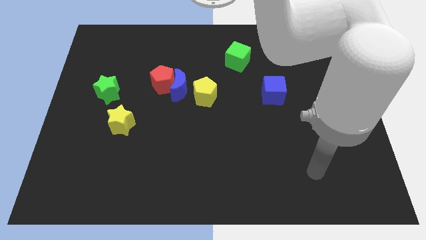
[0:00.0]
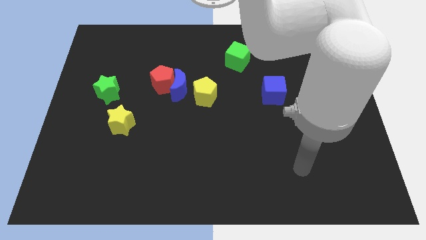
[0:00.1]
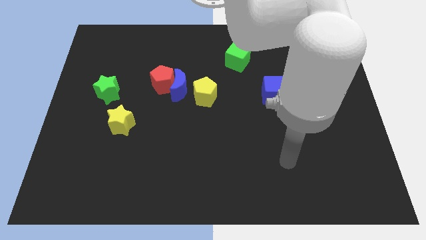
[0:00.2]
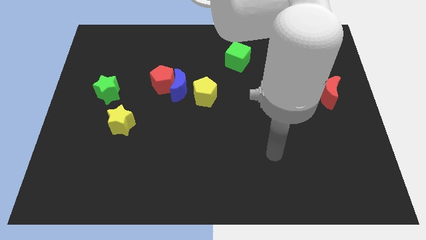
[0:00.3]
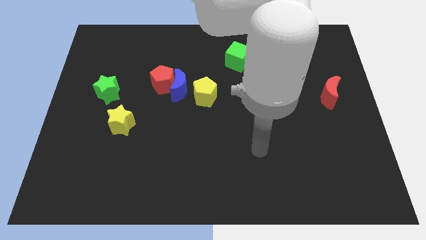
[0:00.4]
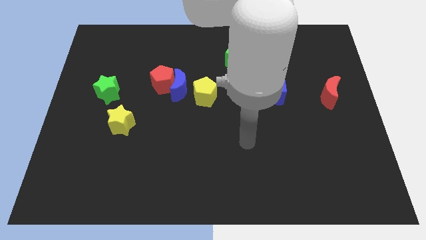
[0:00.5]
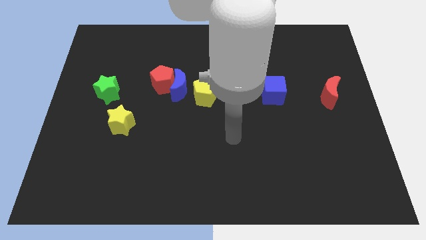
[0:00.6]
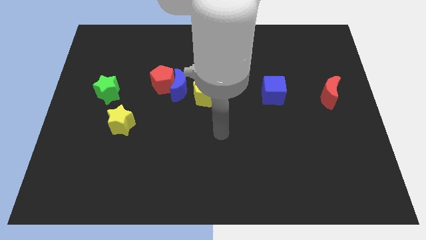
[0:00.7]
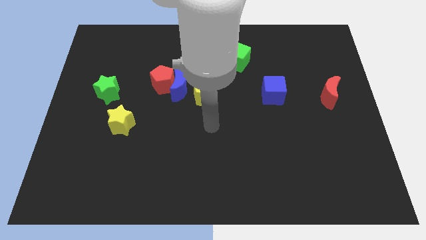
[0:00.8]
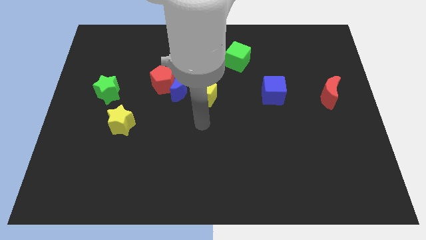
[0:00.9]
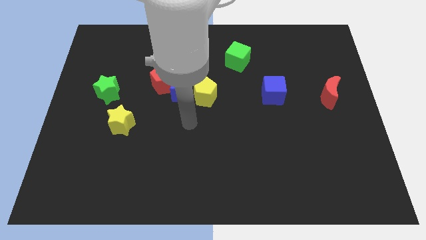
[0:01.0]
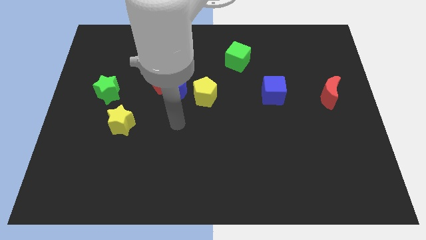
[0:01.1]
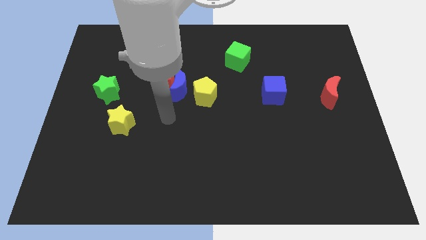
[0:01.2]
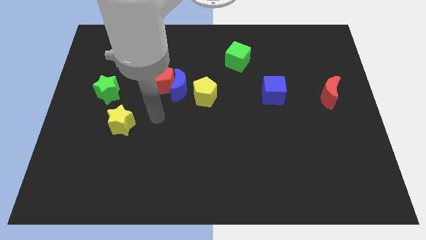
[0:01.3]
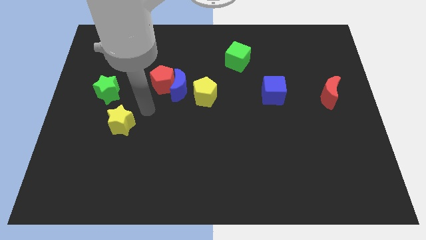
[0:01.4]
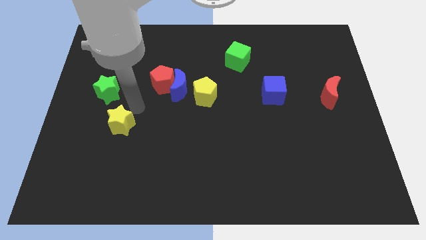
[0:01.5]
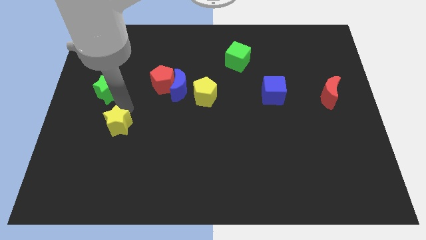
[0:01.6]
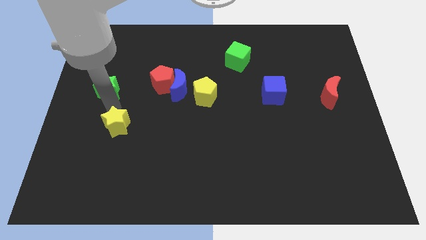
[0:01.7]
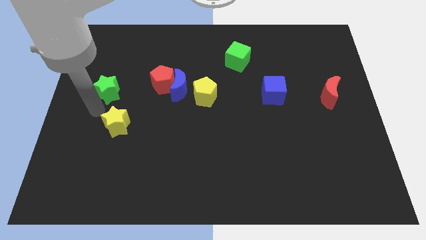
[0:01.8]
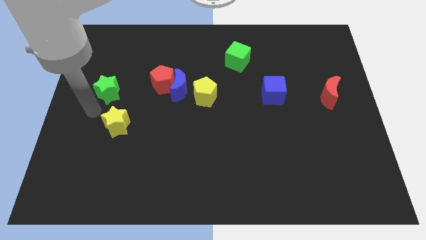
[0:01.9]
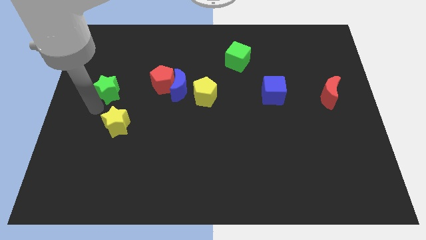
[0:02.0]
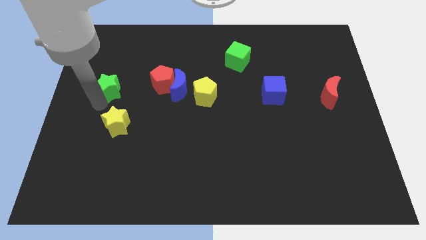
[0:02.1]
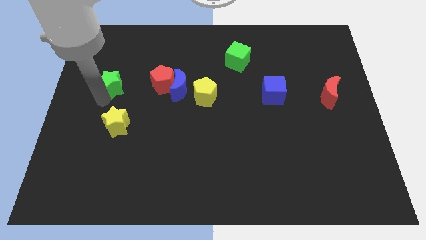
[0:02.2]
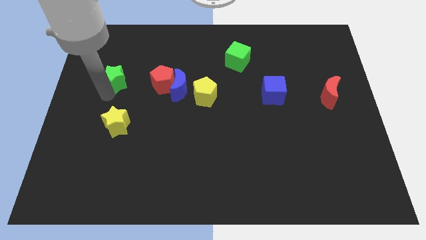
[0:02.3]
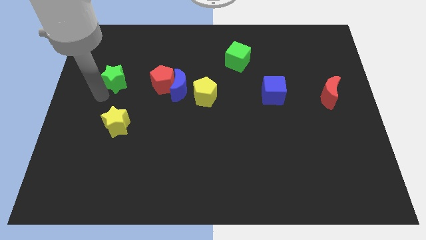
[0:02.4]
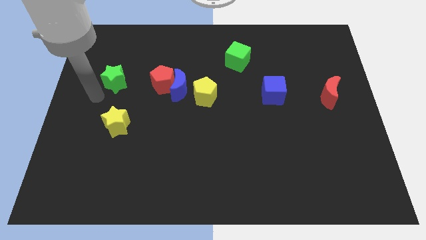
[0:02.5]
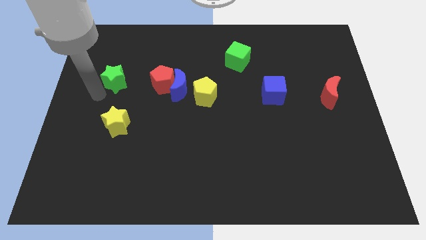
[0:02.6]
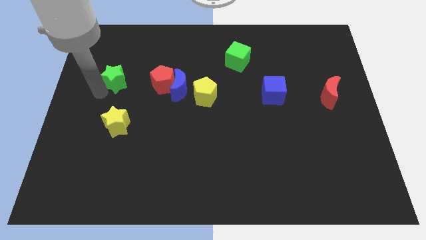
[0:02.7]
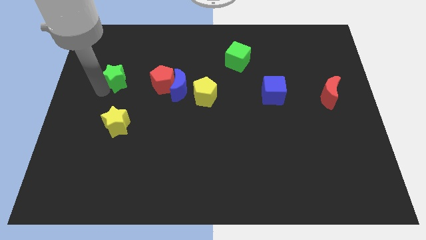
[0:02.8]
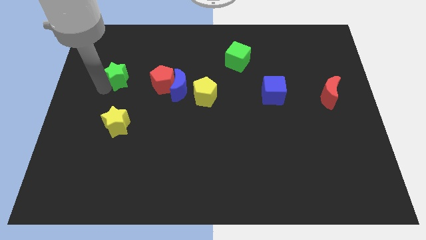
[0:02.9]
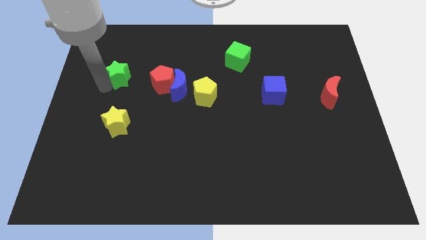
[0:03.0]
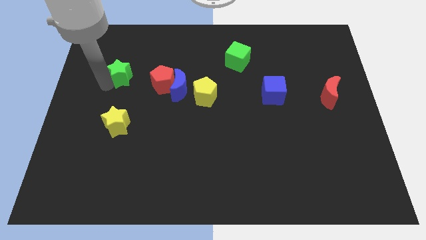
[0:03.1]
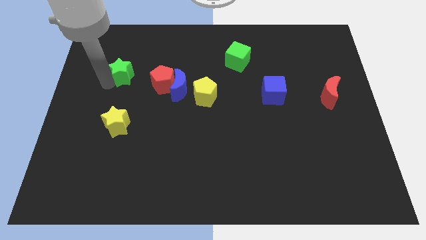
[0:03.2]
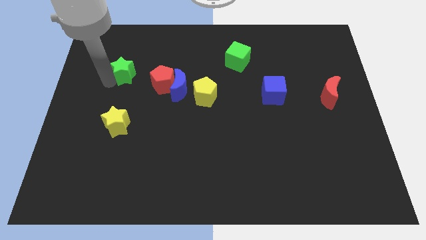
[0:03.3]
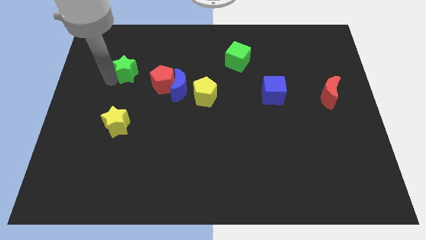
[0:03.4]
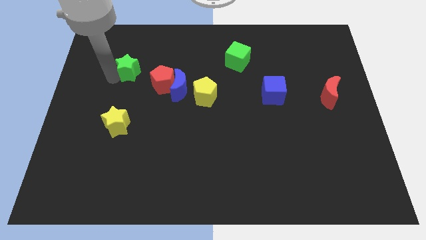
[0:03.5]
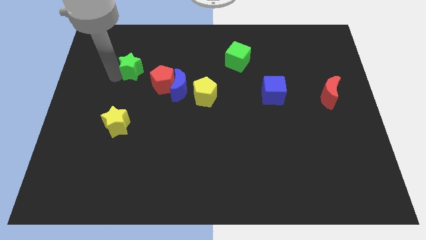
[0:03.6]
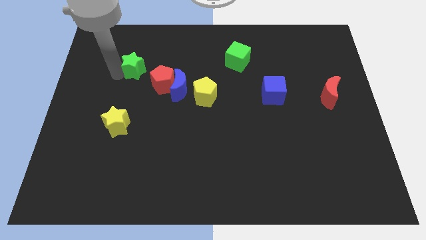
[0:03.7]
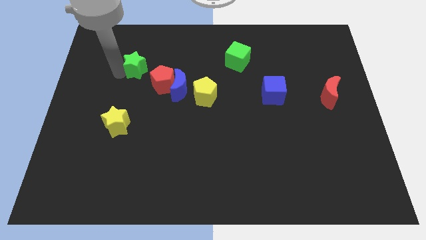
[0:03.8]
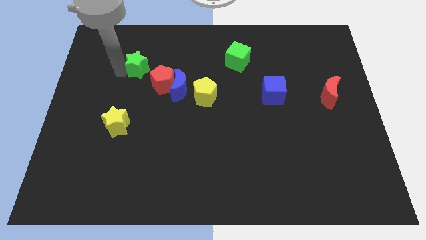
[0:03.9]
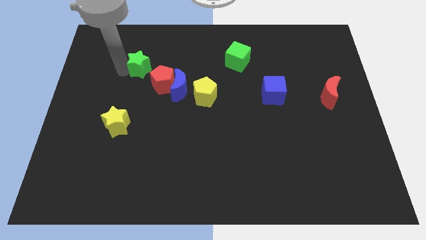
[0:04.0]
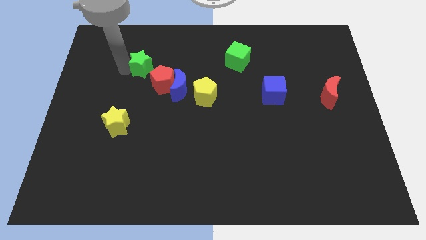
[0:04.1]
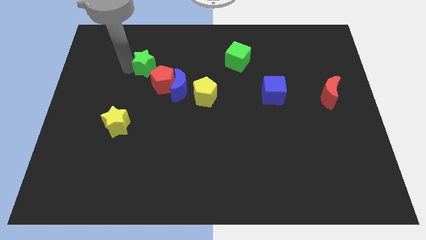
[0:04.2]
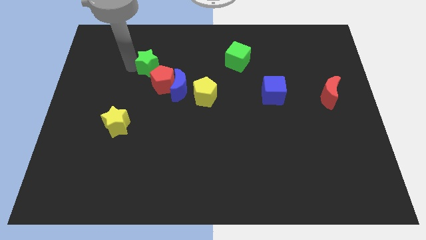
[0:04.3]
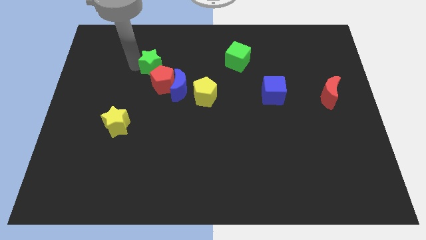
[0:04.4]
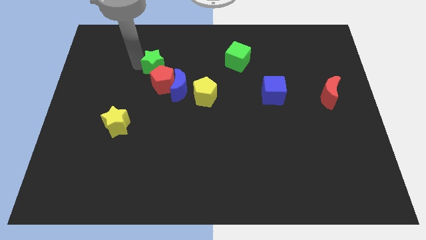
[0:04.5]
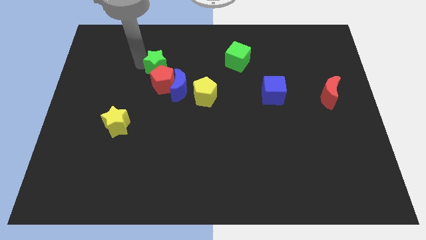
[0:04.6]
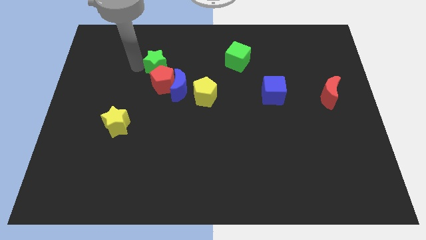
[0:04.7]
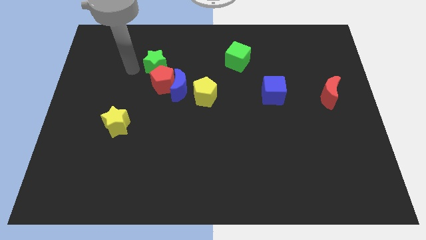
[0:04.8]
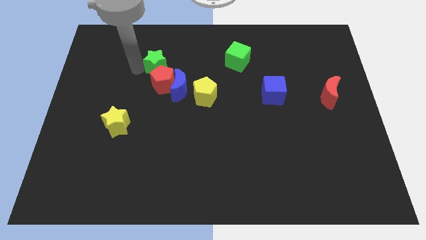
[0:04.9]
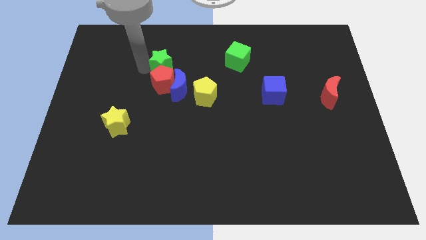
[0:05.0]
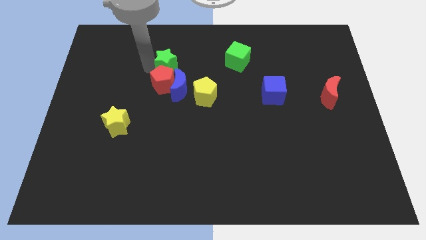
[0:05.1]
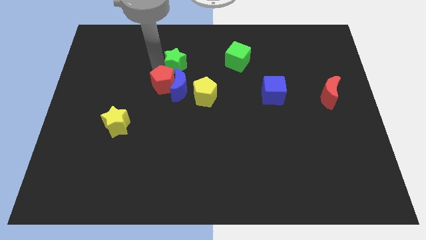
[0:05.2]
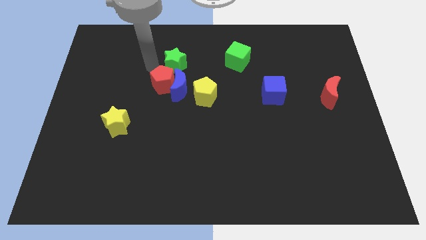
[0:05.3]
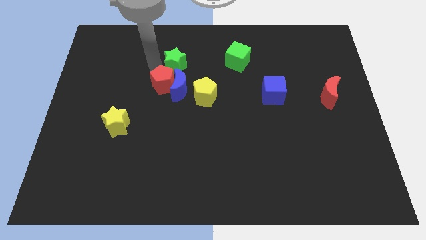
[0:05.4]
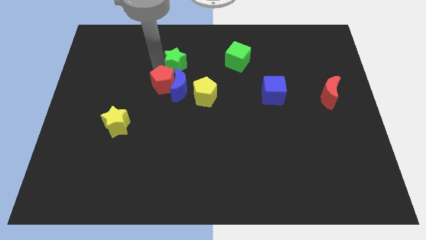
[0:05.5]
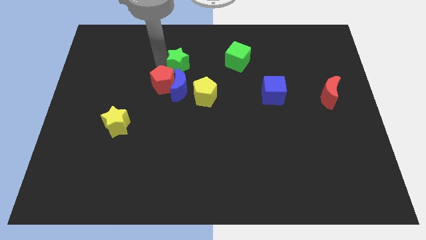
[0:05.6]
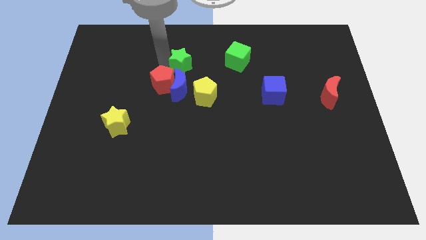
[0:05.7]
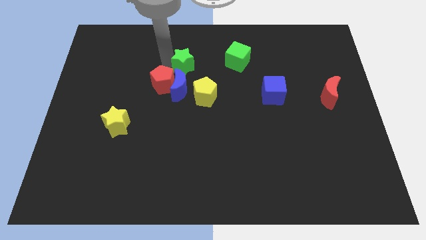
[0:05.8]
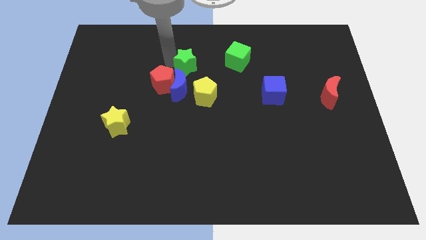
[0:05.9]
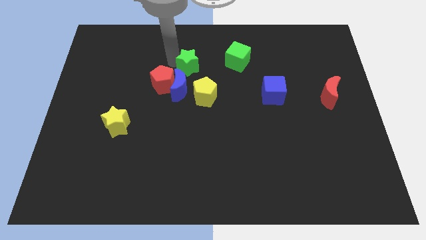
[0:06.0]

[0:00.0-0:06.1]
slide the green star to the top of the yellow pentagon
